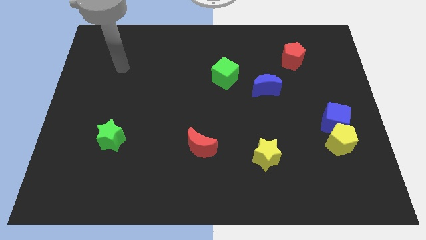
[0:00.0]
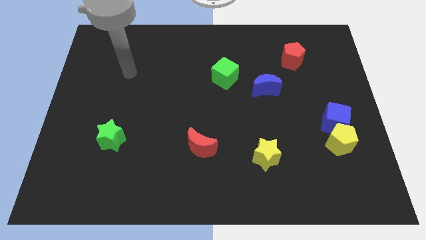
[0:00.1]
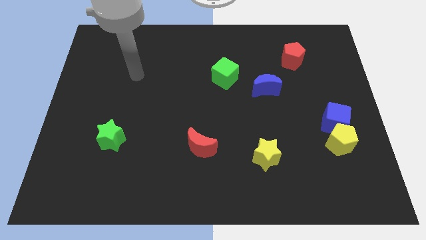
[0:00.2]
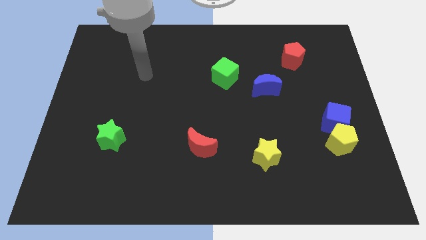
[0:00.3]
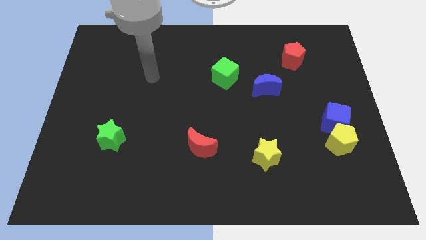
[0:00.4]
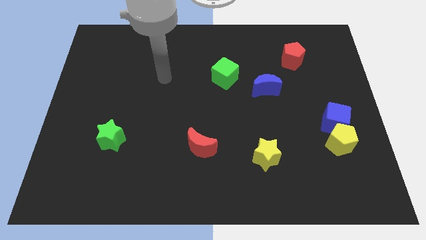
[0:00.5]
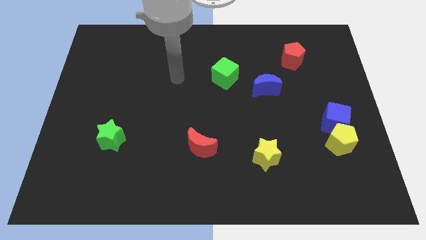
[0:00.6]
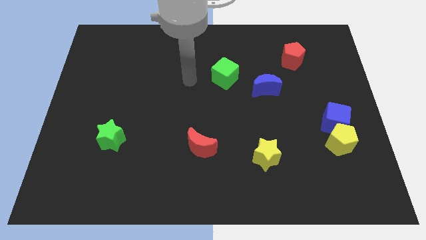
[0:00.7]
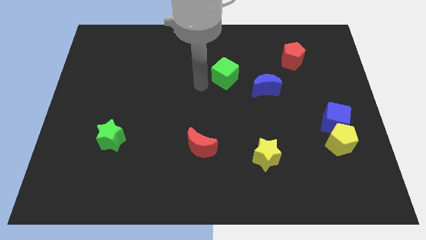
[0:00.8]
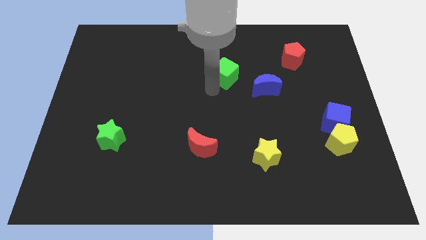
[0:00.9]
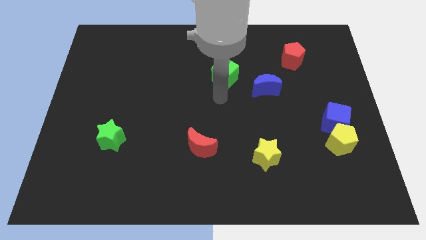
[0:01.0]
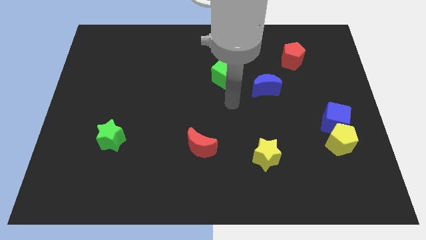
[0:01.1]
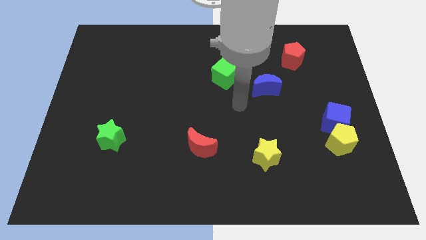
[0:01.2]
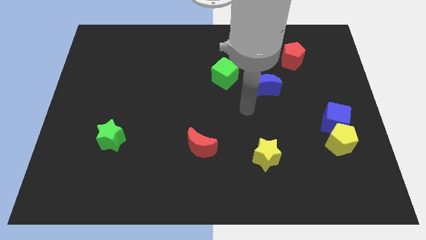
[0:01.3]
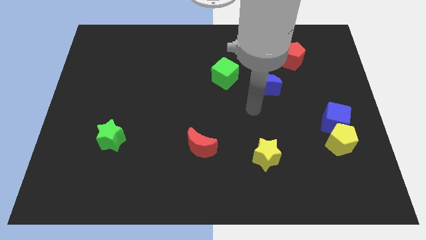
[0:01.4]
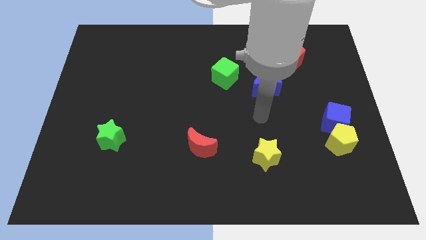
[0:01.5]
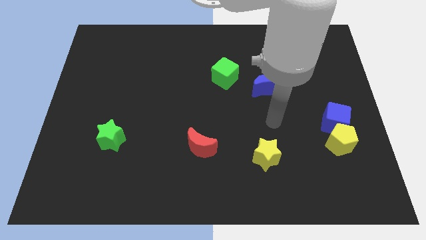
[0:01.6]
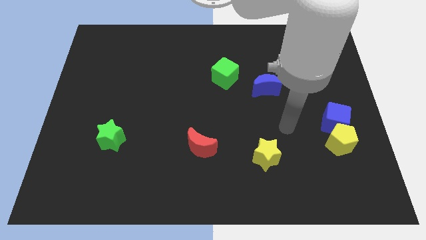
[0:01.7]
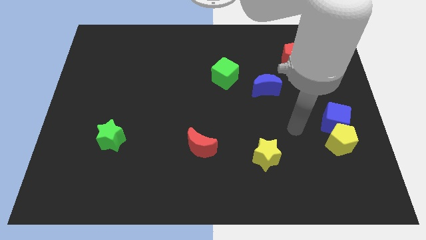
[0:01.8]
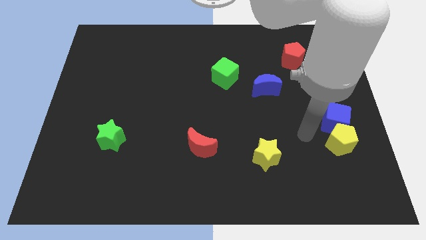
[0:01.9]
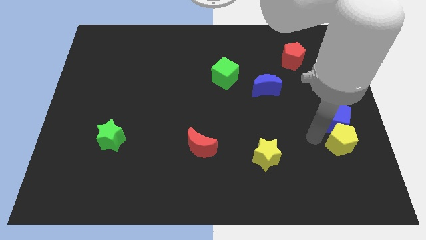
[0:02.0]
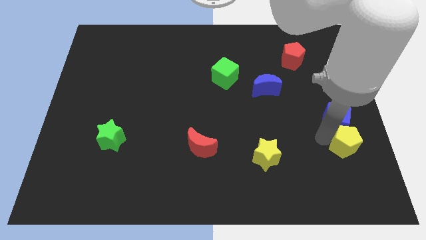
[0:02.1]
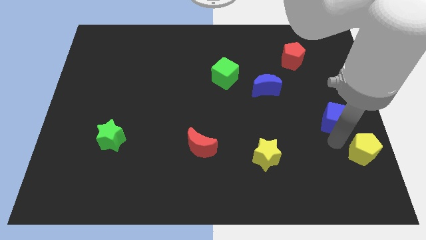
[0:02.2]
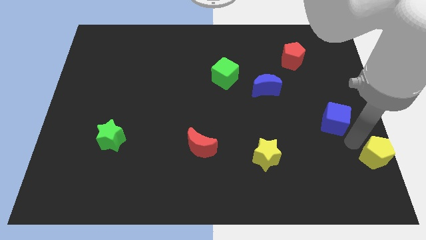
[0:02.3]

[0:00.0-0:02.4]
pull the blue cube apart from the yellow pentagon

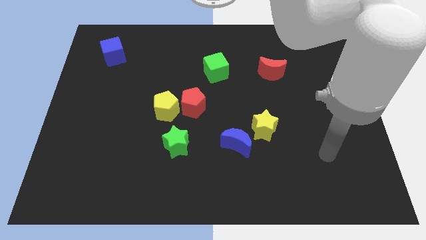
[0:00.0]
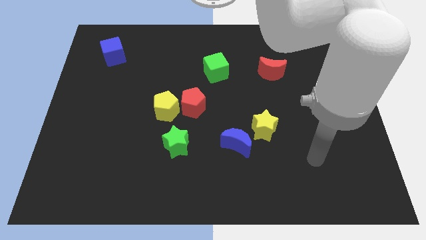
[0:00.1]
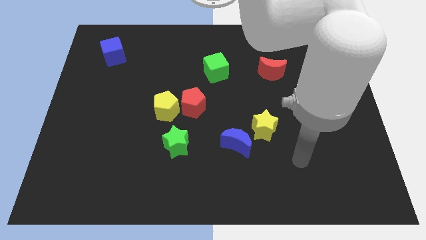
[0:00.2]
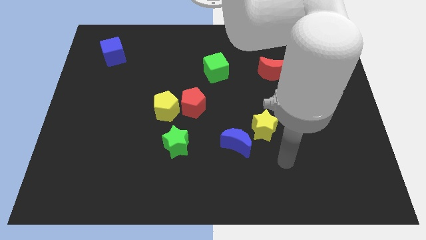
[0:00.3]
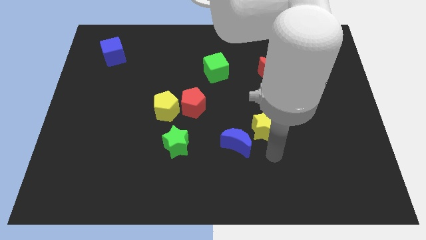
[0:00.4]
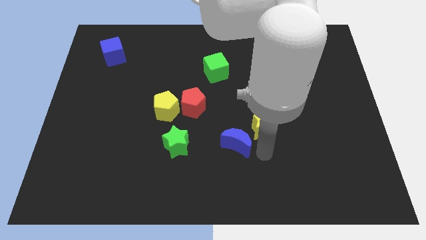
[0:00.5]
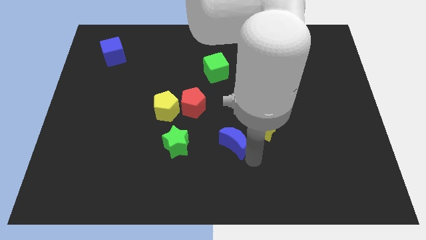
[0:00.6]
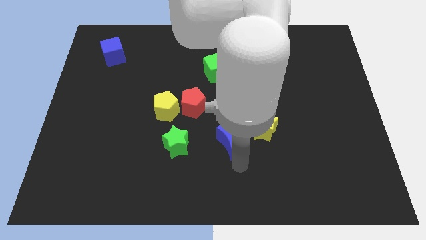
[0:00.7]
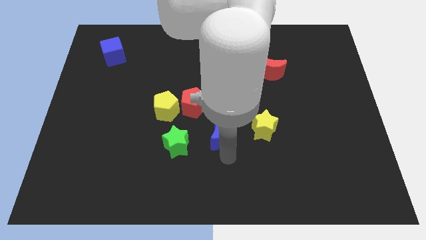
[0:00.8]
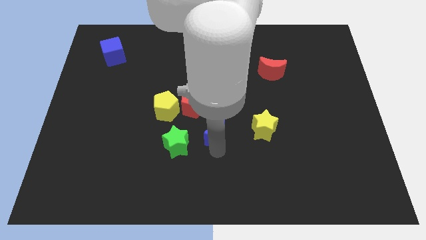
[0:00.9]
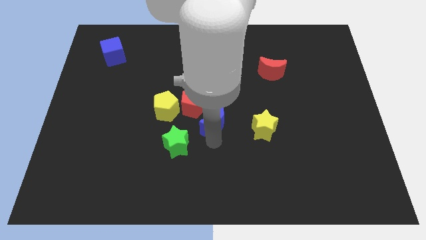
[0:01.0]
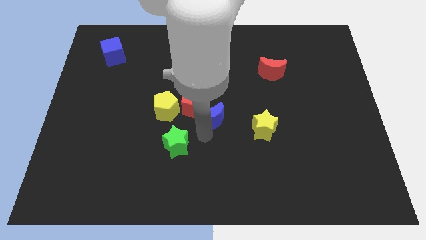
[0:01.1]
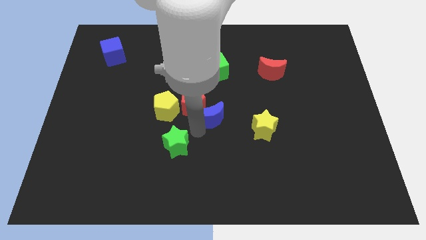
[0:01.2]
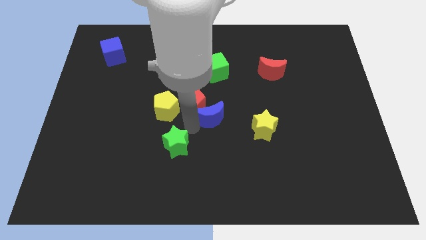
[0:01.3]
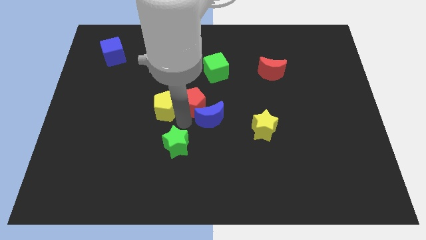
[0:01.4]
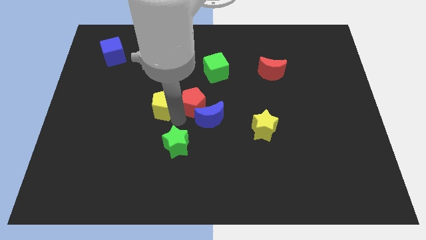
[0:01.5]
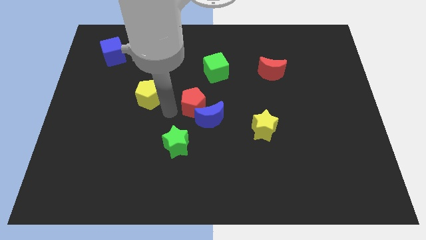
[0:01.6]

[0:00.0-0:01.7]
move the red pentagon away from the yellow pentagon

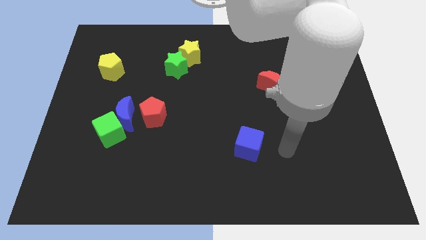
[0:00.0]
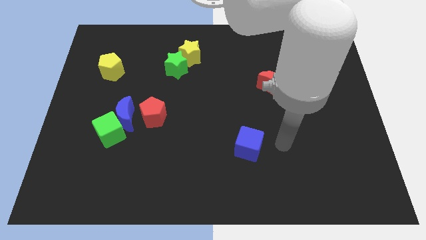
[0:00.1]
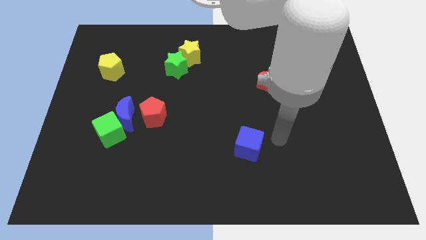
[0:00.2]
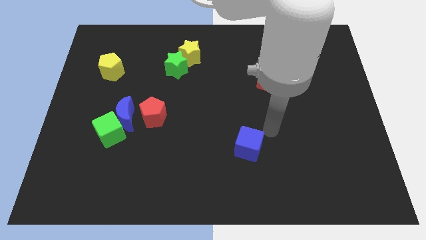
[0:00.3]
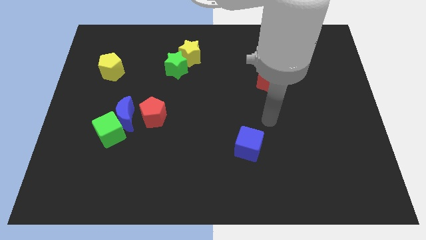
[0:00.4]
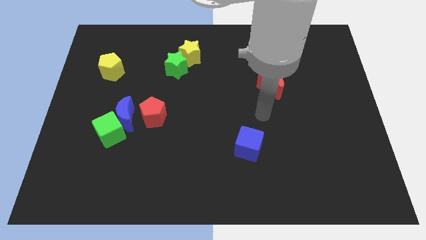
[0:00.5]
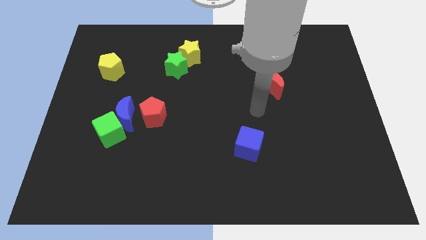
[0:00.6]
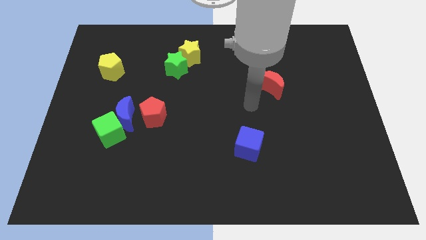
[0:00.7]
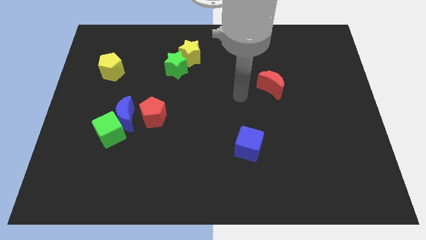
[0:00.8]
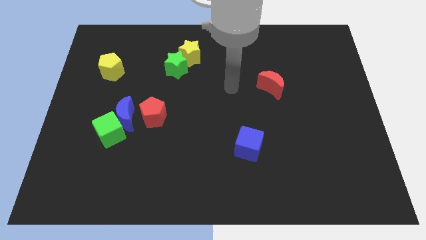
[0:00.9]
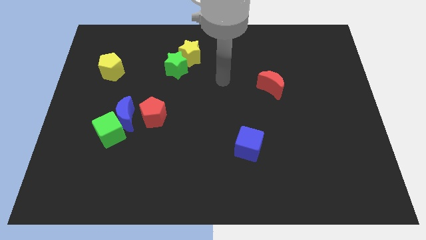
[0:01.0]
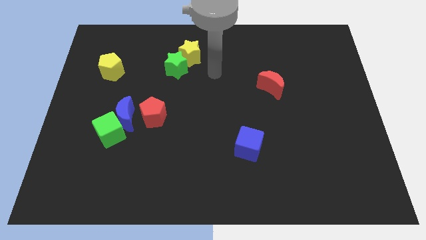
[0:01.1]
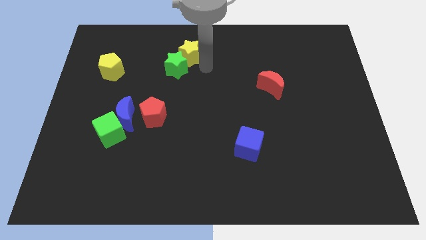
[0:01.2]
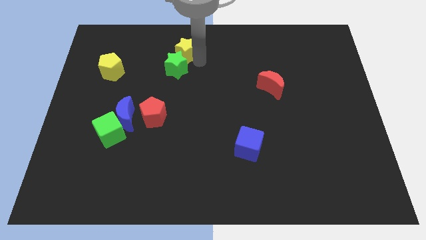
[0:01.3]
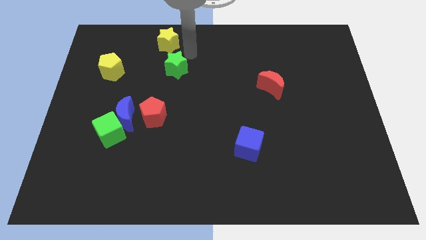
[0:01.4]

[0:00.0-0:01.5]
pull the green star apart from the yellow star

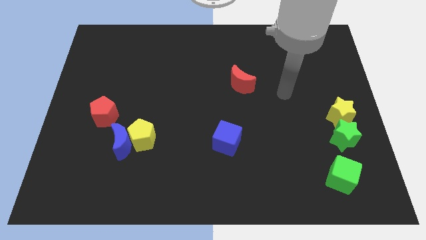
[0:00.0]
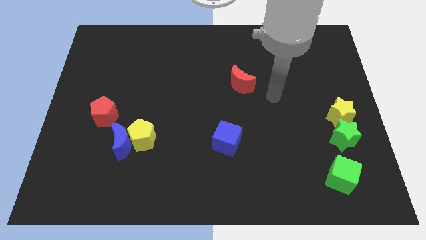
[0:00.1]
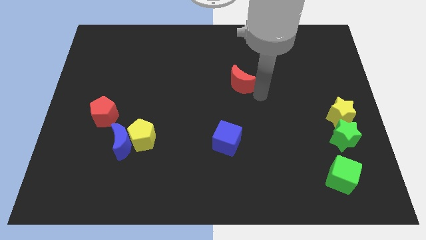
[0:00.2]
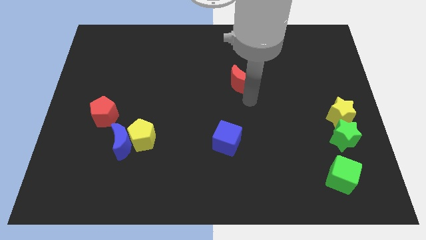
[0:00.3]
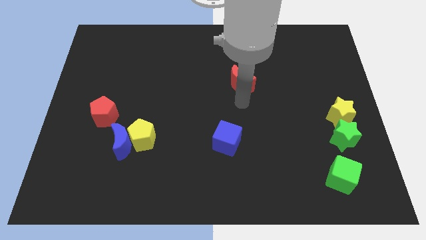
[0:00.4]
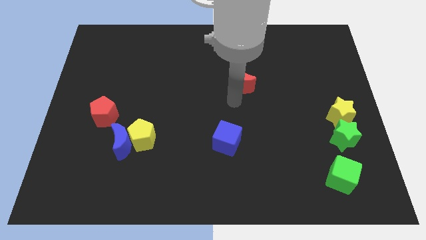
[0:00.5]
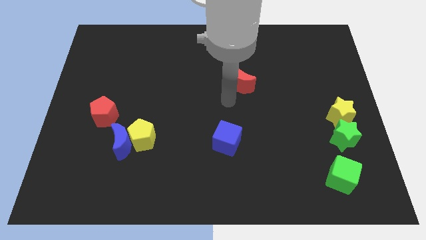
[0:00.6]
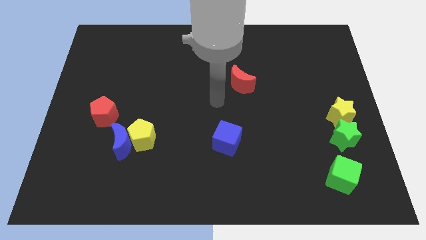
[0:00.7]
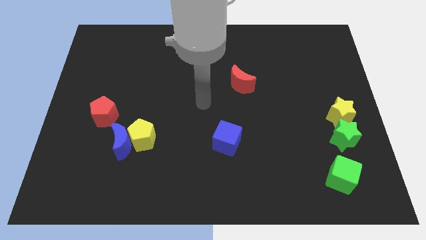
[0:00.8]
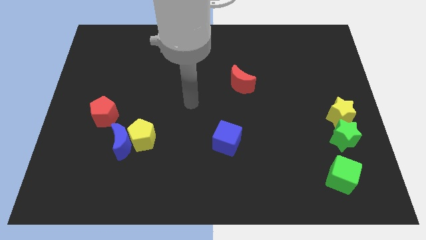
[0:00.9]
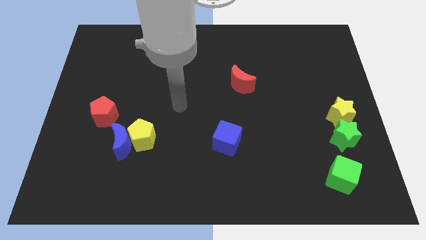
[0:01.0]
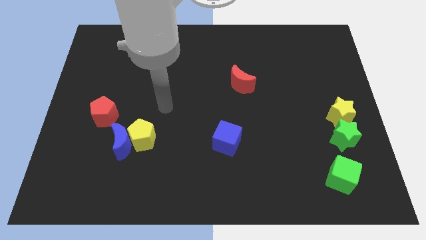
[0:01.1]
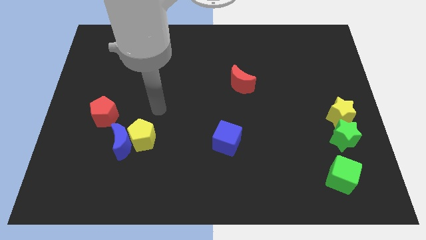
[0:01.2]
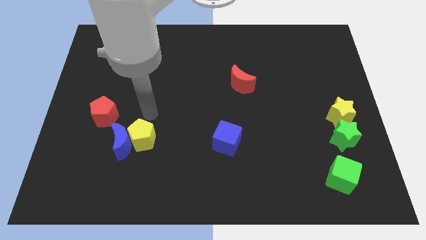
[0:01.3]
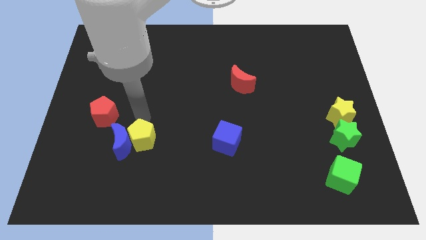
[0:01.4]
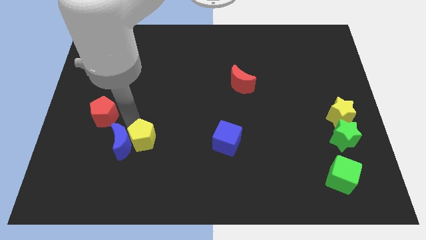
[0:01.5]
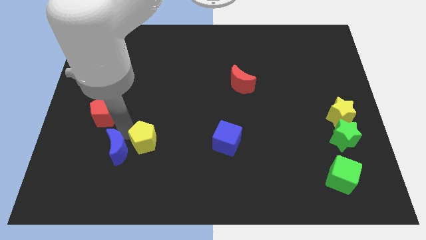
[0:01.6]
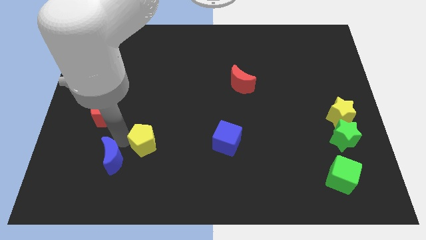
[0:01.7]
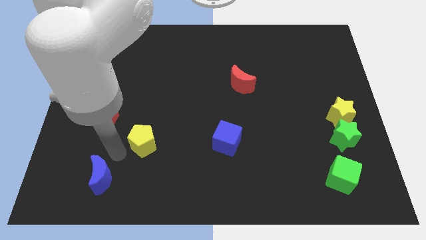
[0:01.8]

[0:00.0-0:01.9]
move the yellow pentagon away from the blue moon

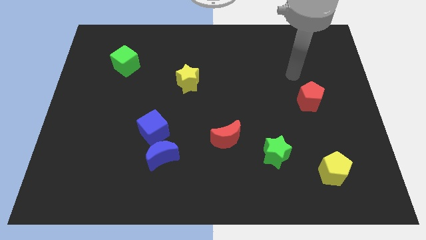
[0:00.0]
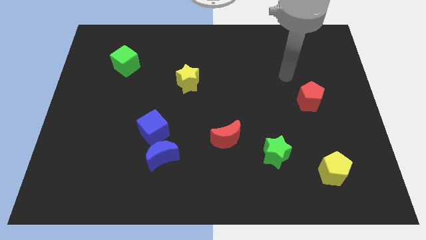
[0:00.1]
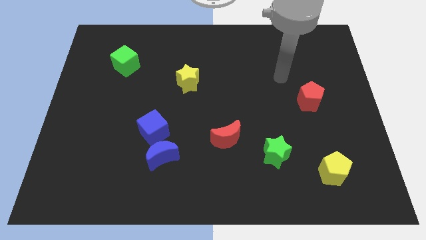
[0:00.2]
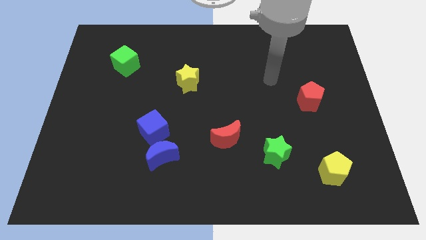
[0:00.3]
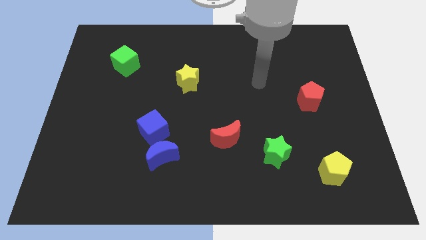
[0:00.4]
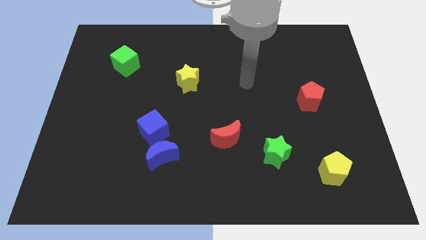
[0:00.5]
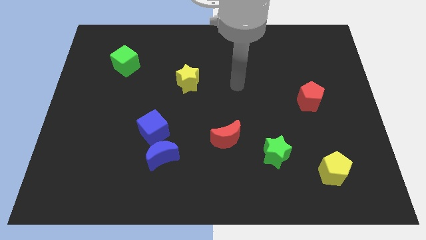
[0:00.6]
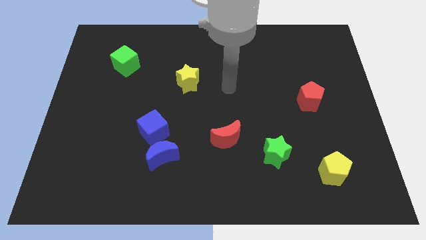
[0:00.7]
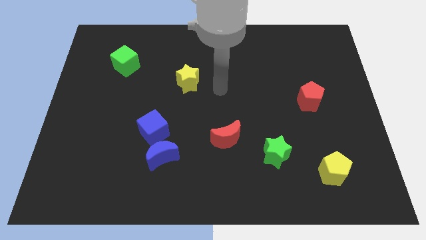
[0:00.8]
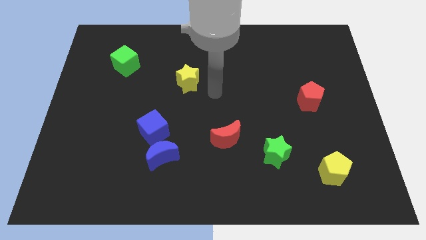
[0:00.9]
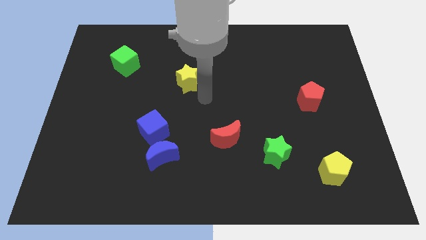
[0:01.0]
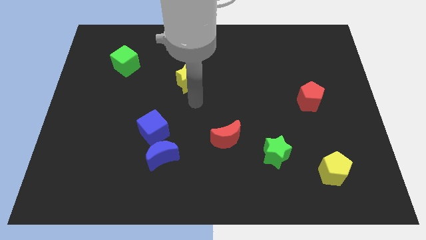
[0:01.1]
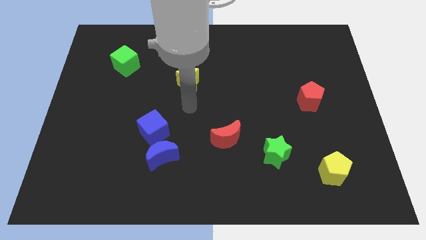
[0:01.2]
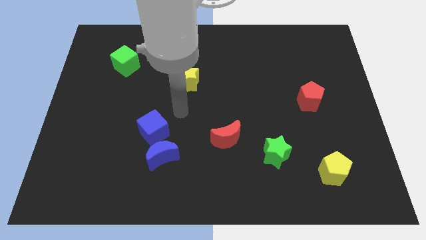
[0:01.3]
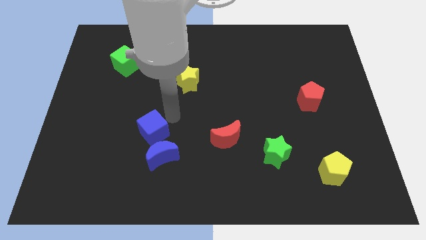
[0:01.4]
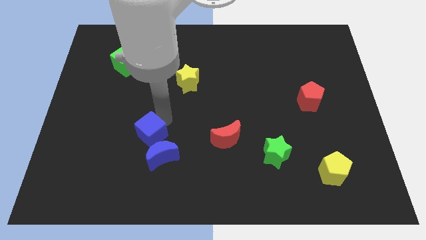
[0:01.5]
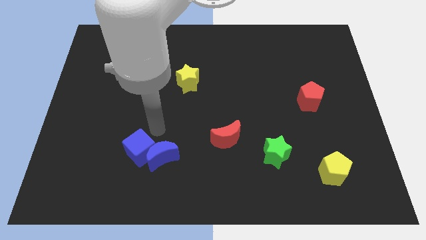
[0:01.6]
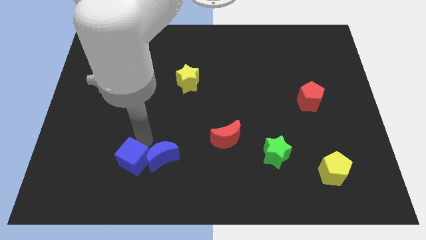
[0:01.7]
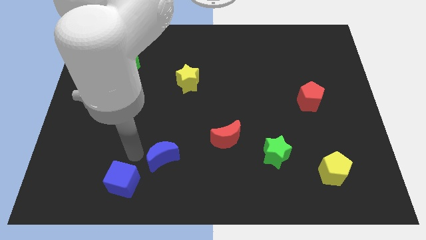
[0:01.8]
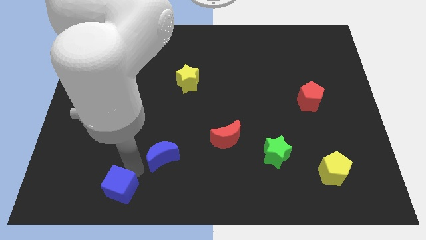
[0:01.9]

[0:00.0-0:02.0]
pull the blue moon apart from the blue cube
